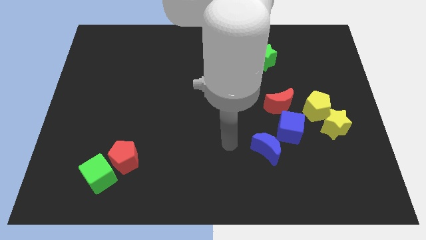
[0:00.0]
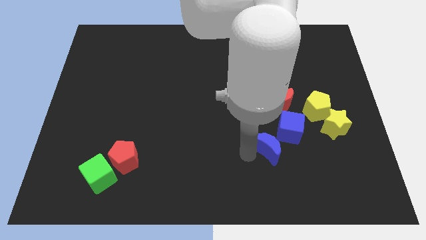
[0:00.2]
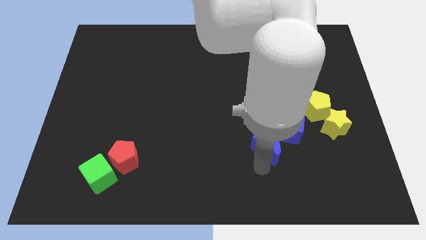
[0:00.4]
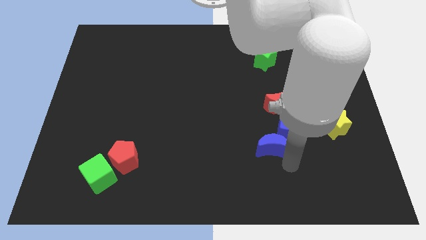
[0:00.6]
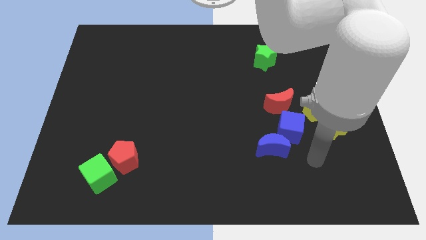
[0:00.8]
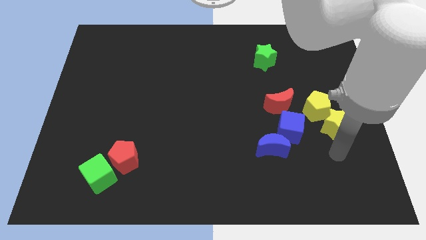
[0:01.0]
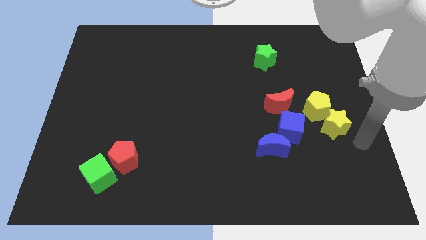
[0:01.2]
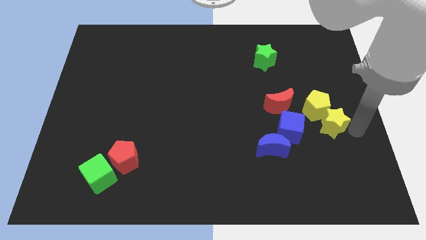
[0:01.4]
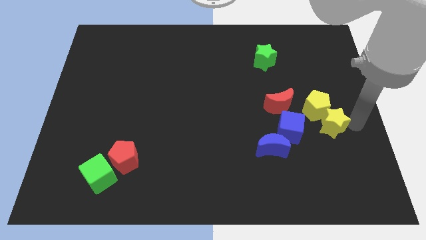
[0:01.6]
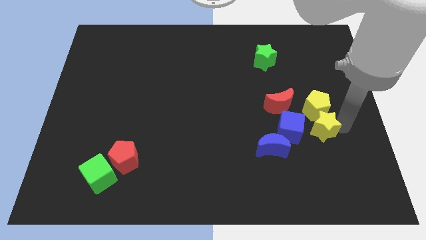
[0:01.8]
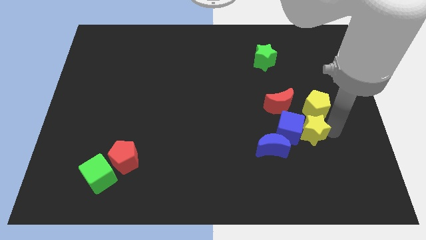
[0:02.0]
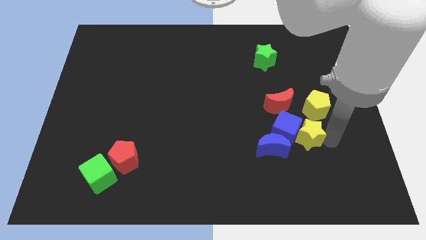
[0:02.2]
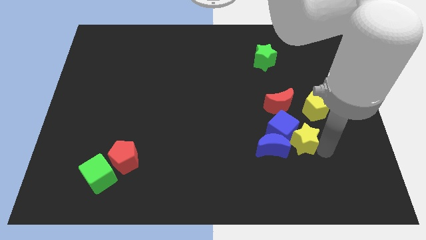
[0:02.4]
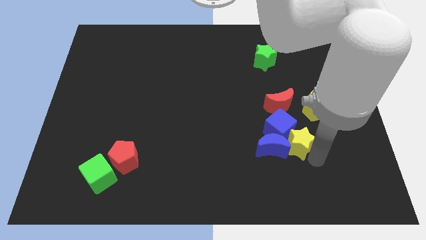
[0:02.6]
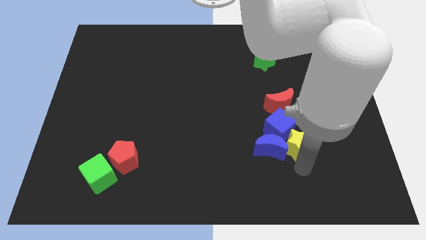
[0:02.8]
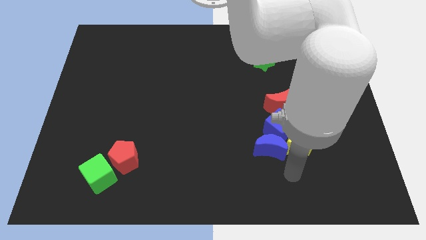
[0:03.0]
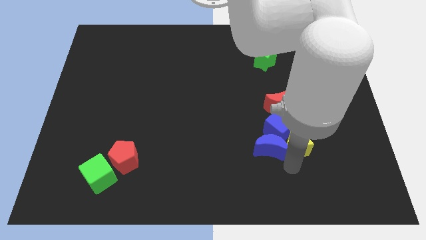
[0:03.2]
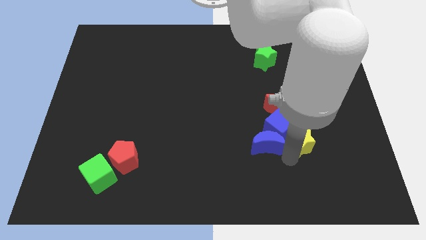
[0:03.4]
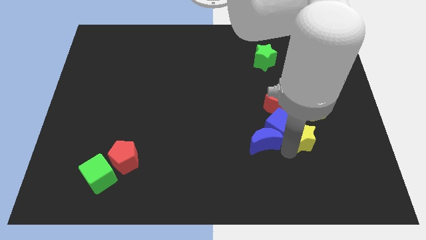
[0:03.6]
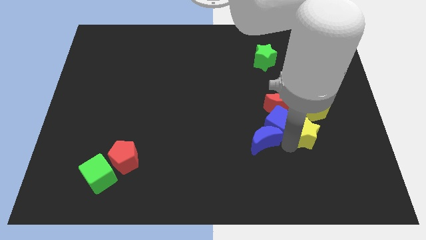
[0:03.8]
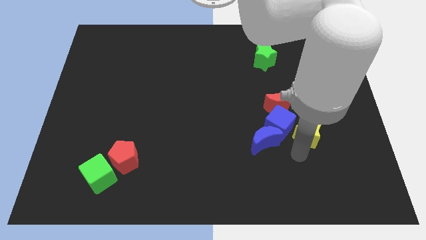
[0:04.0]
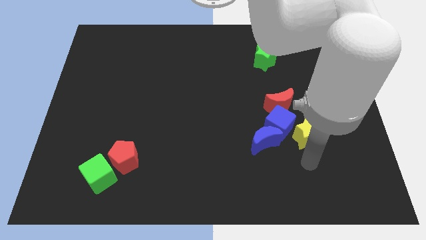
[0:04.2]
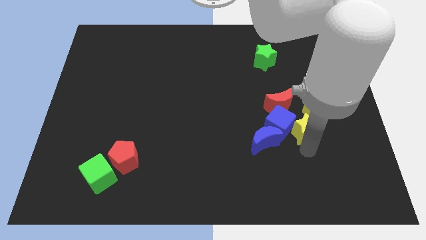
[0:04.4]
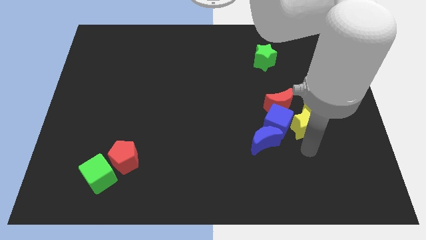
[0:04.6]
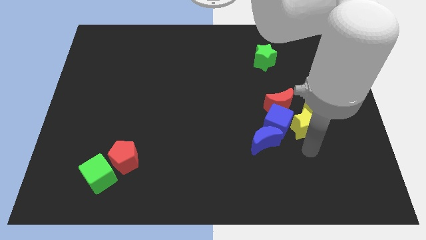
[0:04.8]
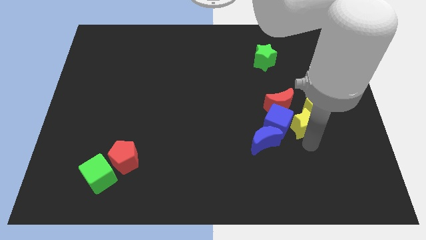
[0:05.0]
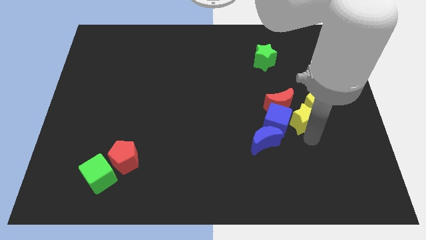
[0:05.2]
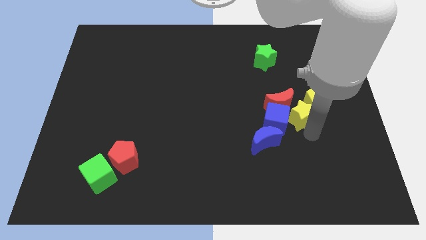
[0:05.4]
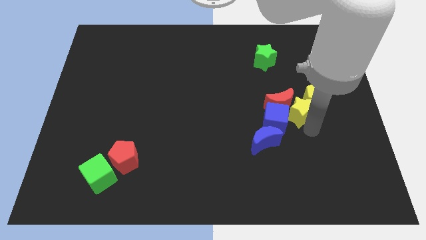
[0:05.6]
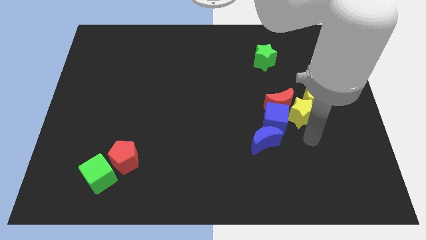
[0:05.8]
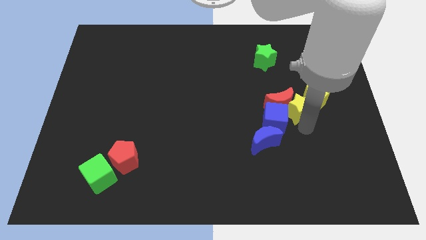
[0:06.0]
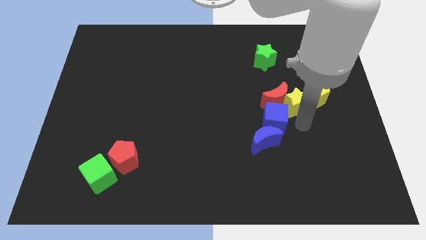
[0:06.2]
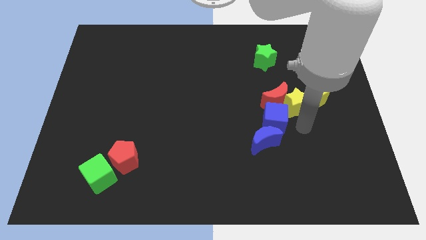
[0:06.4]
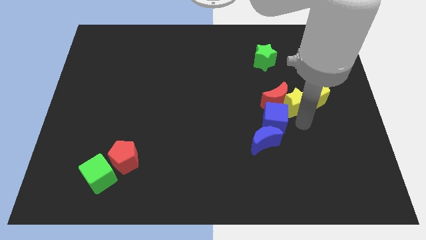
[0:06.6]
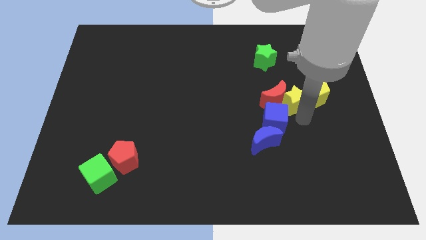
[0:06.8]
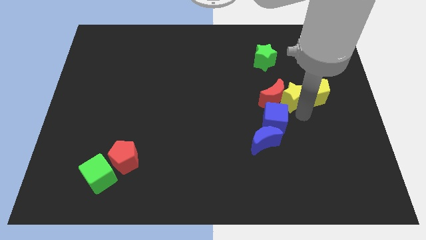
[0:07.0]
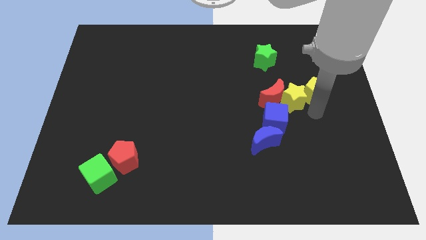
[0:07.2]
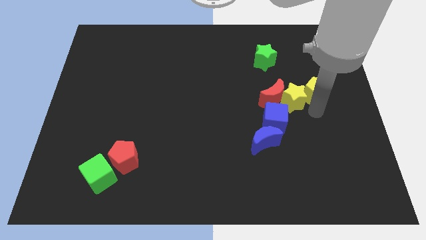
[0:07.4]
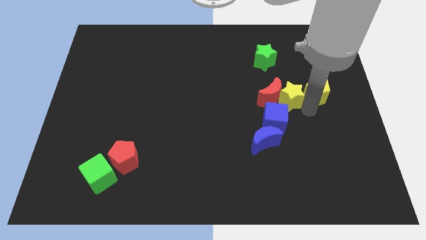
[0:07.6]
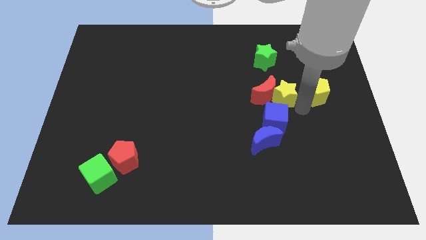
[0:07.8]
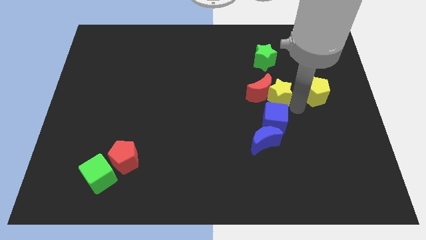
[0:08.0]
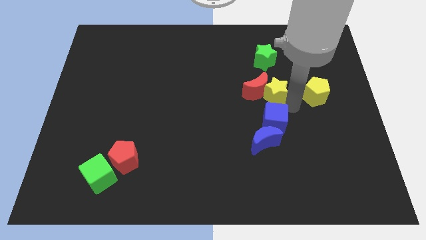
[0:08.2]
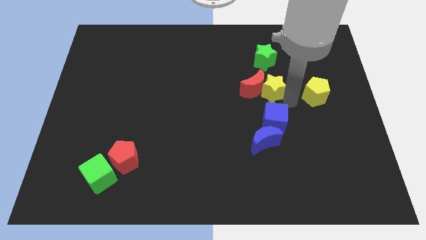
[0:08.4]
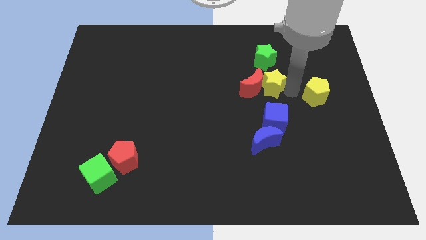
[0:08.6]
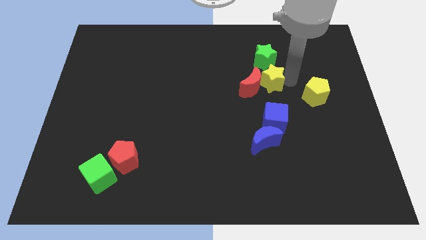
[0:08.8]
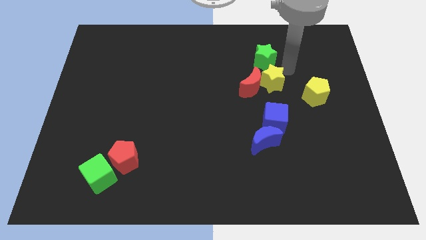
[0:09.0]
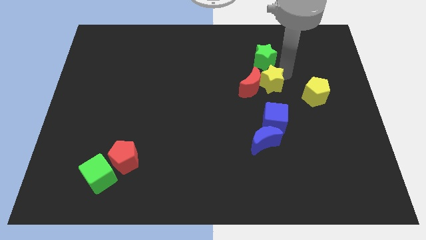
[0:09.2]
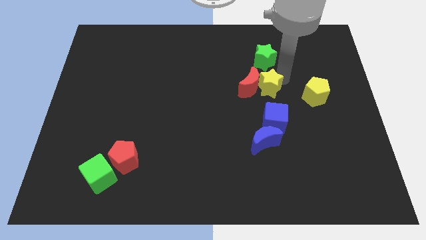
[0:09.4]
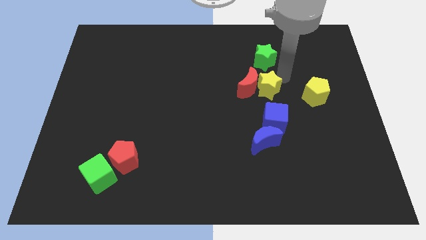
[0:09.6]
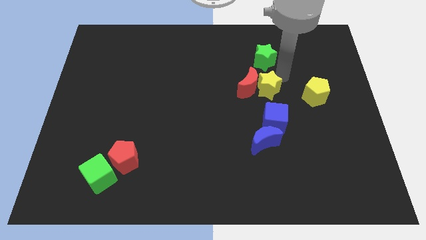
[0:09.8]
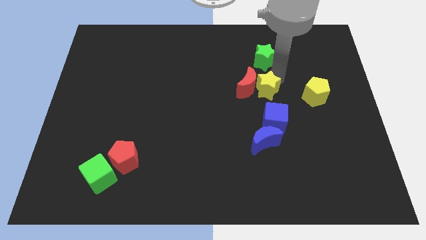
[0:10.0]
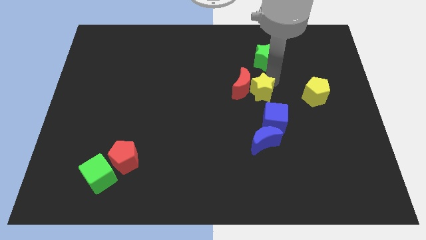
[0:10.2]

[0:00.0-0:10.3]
put the yellow star to the top left of the blue cube

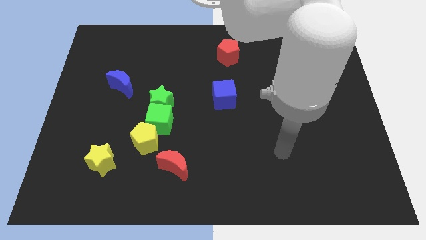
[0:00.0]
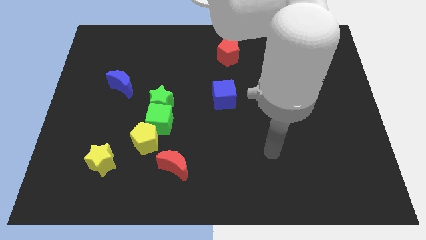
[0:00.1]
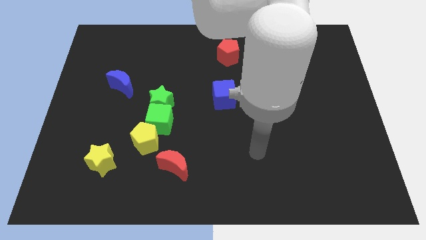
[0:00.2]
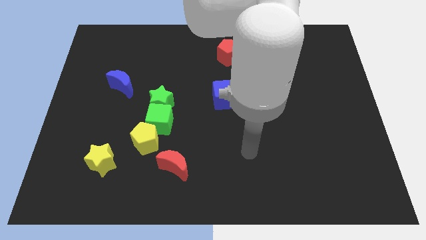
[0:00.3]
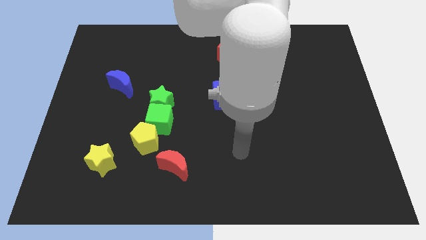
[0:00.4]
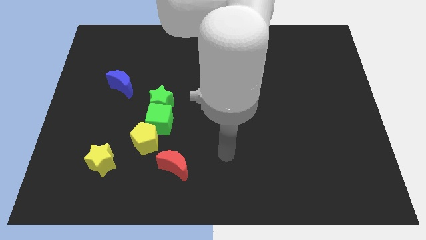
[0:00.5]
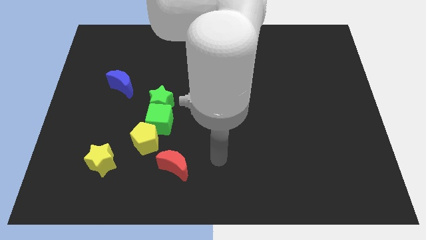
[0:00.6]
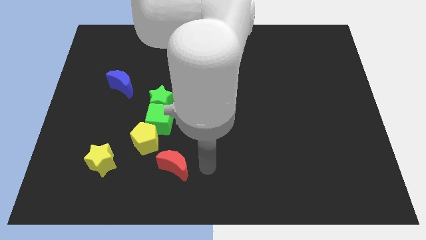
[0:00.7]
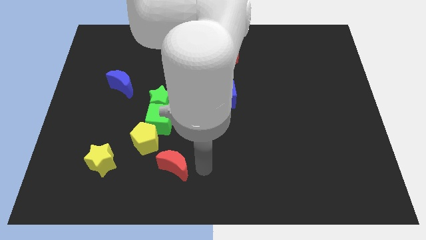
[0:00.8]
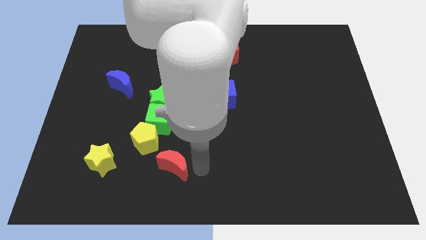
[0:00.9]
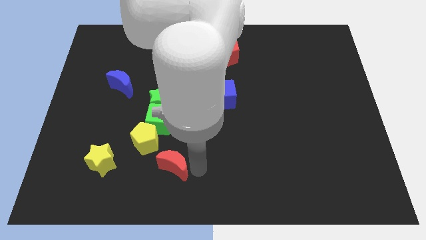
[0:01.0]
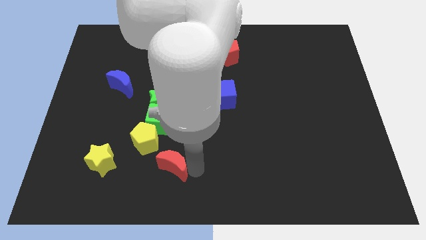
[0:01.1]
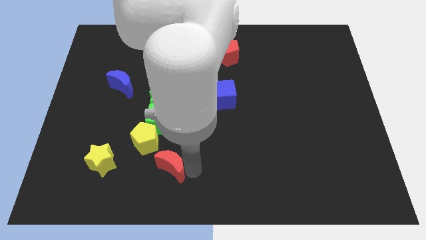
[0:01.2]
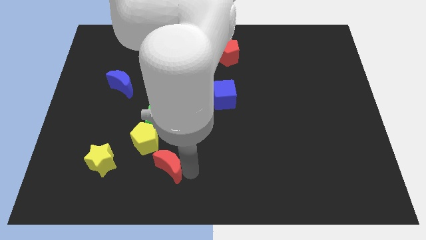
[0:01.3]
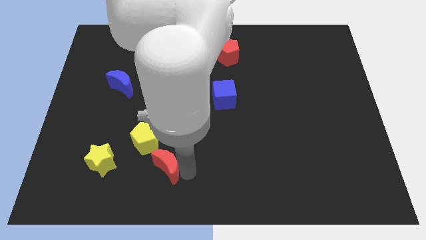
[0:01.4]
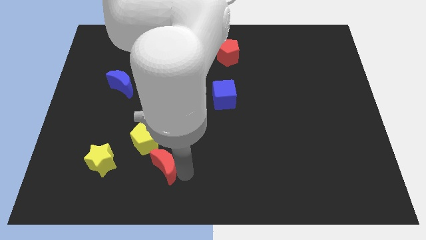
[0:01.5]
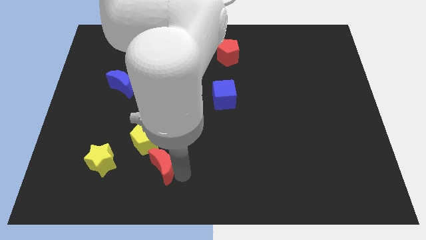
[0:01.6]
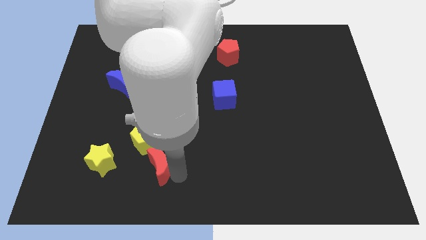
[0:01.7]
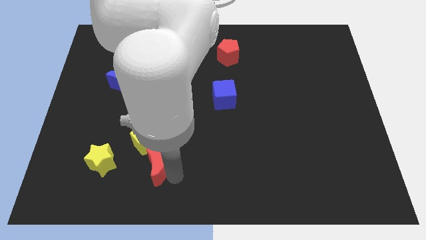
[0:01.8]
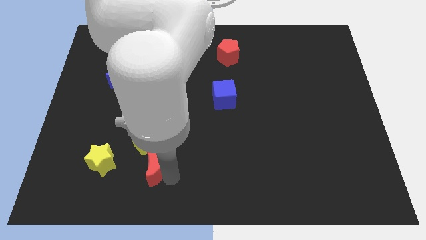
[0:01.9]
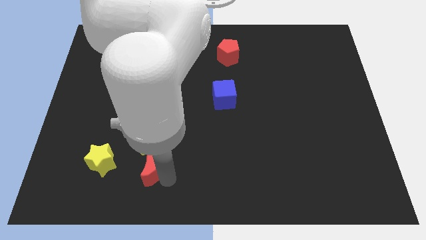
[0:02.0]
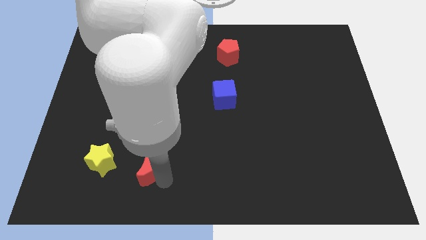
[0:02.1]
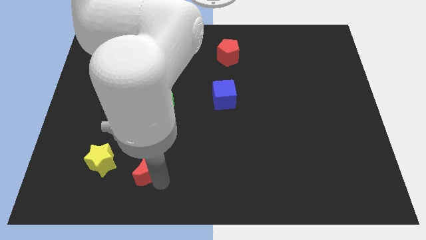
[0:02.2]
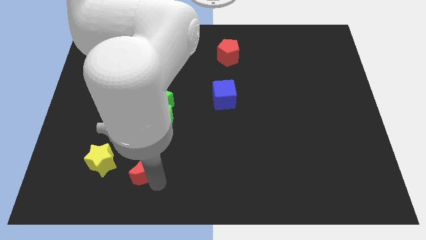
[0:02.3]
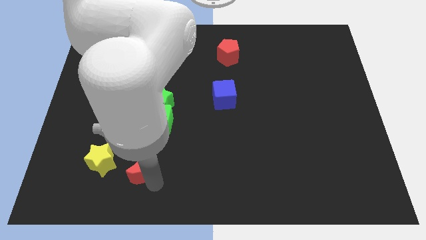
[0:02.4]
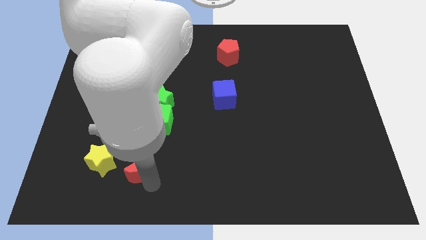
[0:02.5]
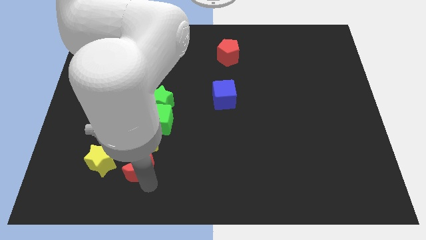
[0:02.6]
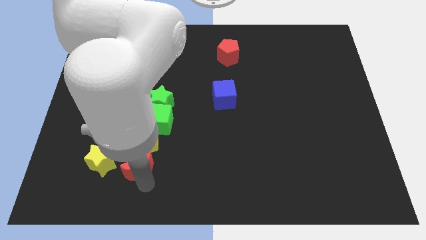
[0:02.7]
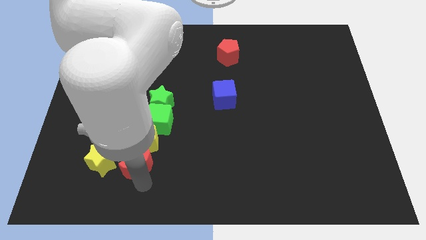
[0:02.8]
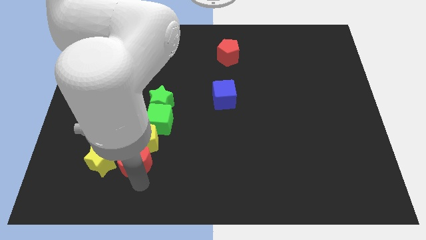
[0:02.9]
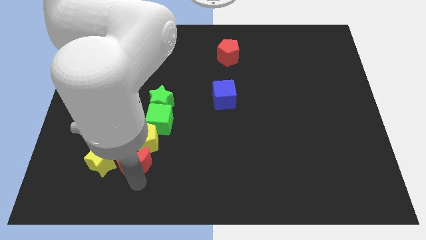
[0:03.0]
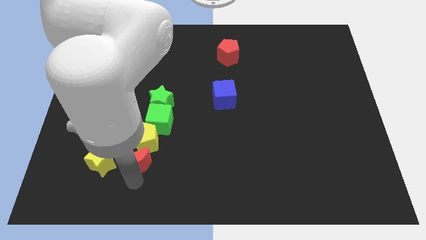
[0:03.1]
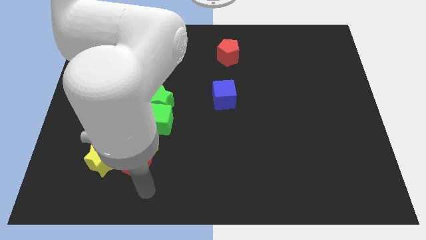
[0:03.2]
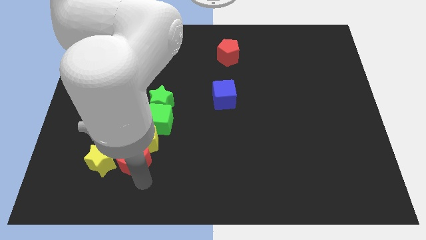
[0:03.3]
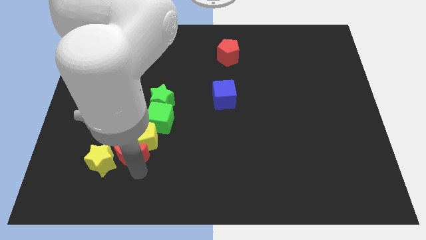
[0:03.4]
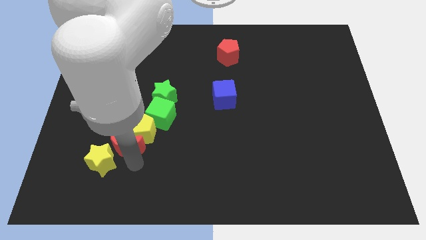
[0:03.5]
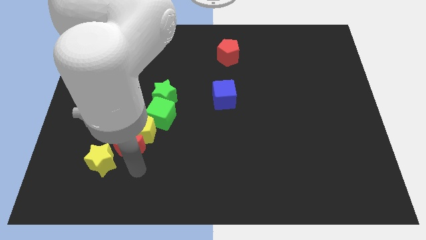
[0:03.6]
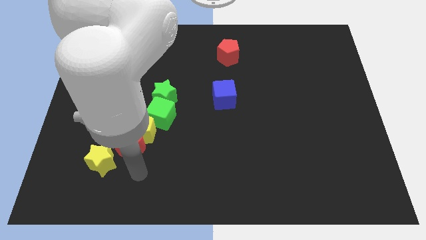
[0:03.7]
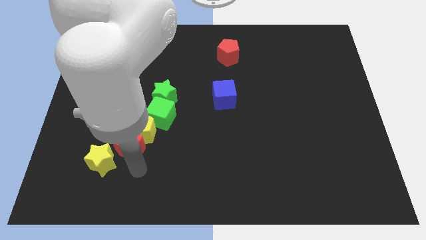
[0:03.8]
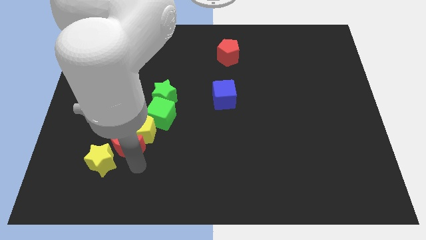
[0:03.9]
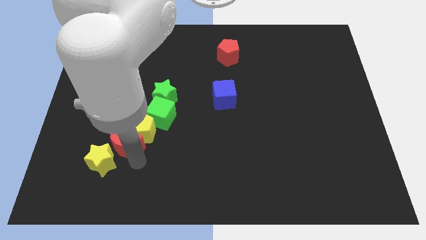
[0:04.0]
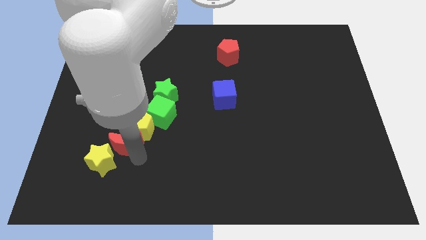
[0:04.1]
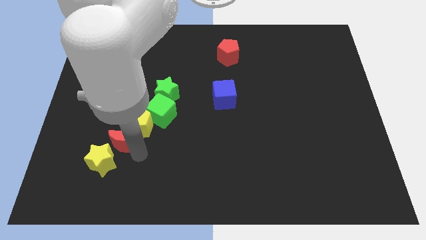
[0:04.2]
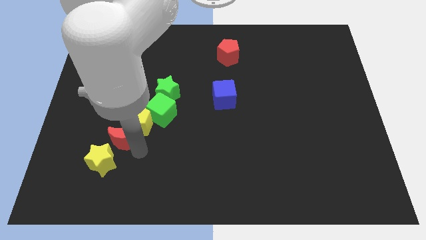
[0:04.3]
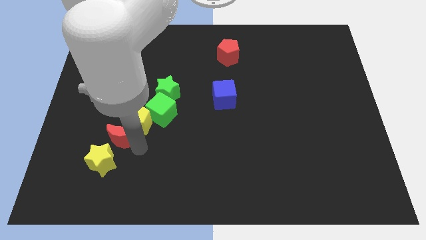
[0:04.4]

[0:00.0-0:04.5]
slide the red moon to the bottom side of the blue moon
